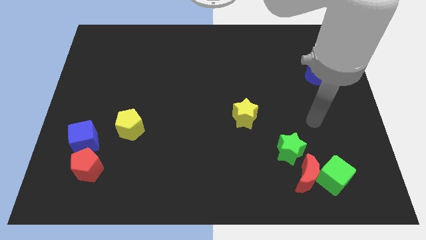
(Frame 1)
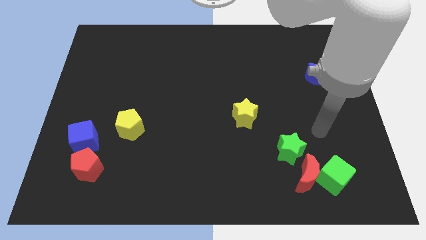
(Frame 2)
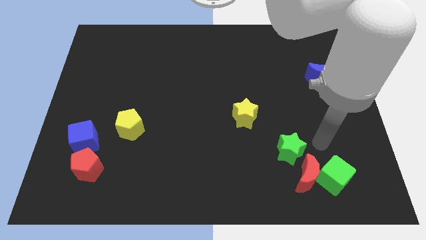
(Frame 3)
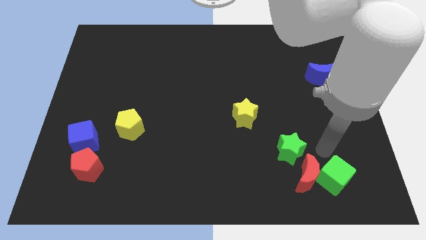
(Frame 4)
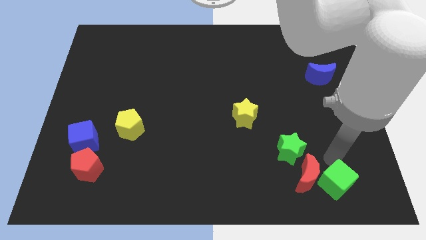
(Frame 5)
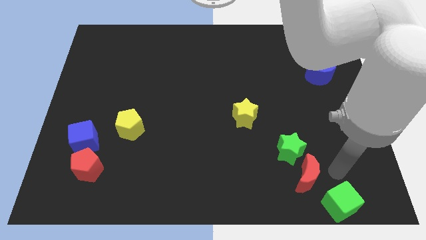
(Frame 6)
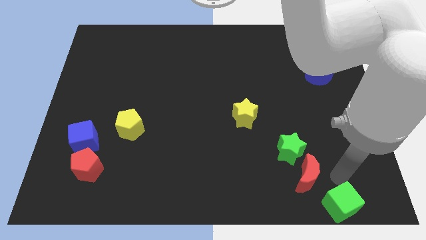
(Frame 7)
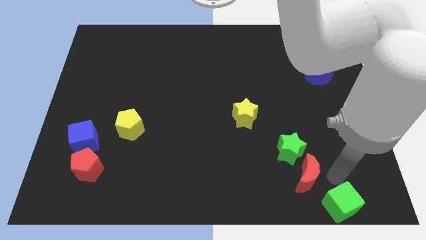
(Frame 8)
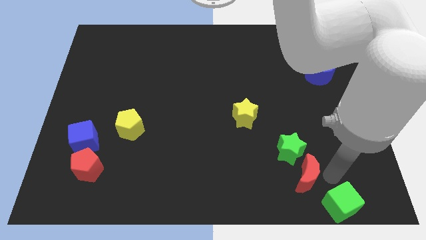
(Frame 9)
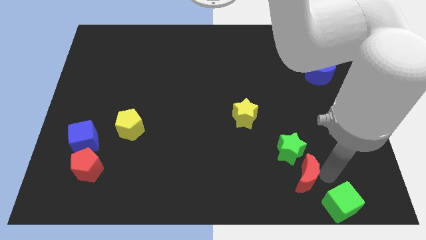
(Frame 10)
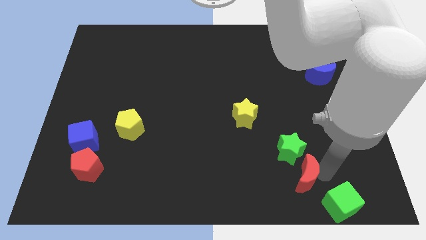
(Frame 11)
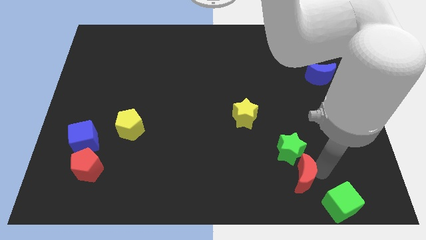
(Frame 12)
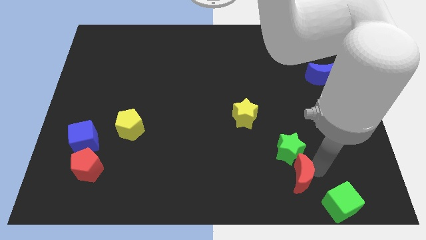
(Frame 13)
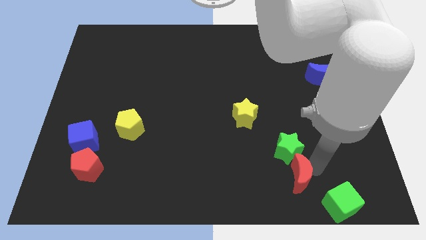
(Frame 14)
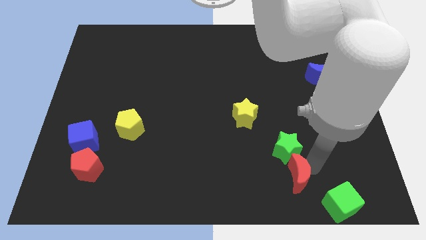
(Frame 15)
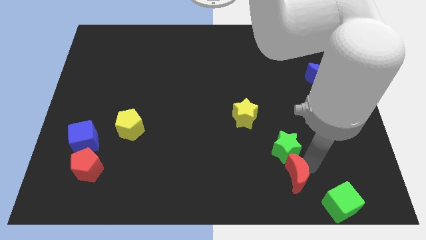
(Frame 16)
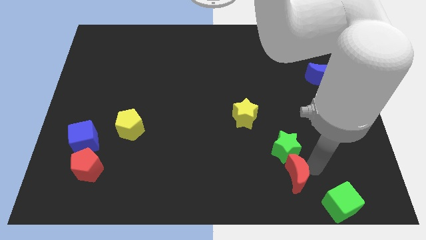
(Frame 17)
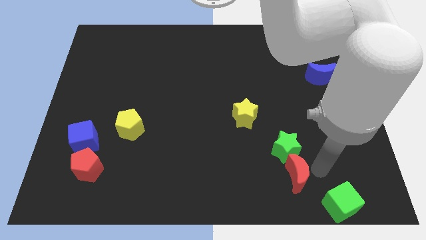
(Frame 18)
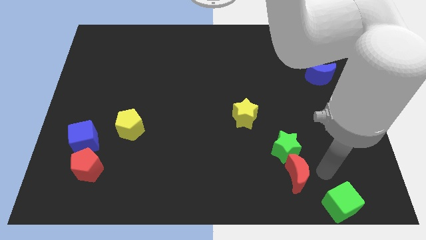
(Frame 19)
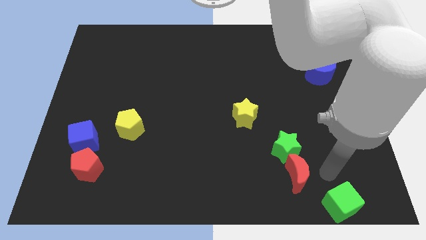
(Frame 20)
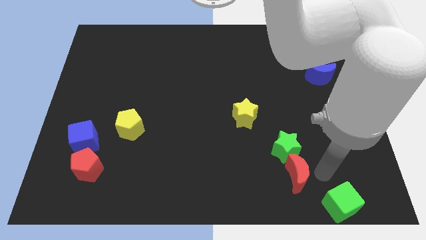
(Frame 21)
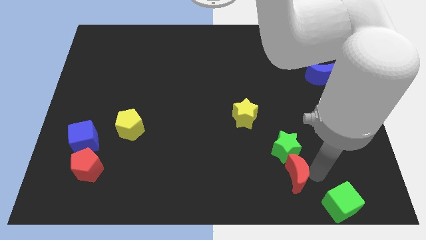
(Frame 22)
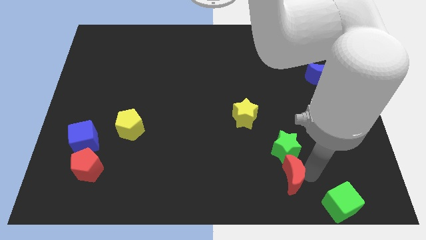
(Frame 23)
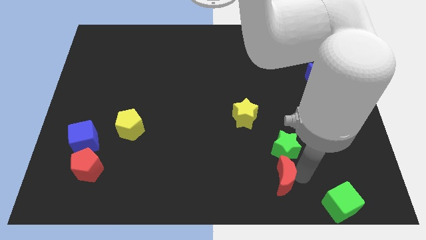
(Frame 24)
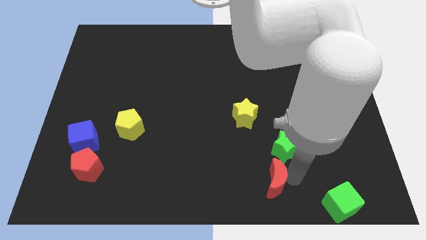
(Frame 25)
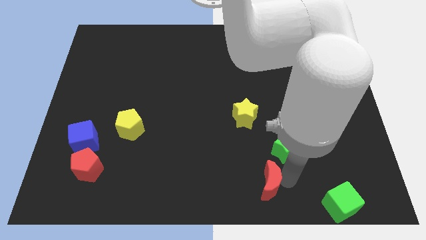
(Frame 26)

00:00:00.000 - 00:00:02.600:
slide the red moon to the left somewhat

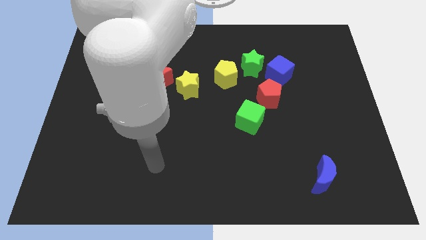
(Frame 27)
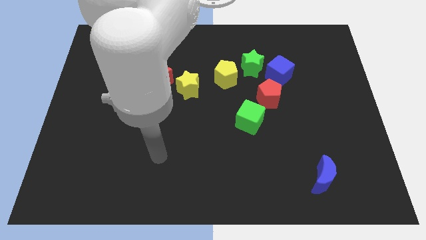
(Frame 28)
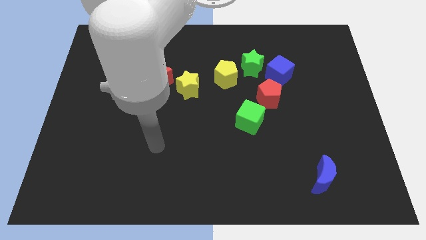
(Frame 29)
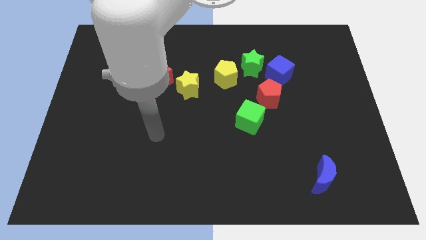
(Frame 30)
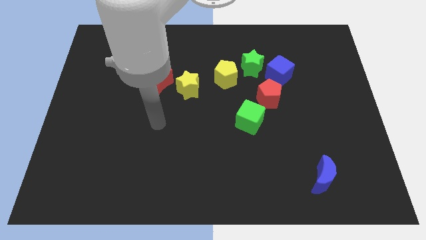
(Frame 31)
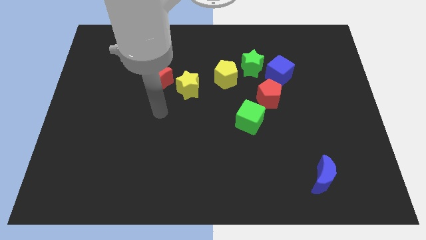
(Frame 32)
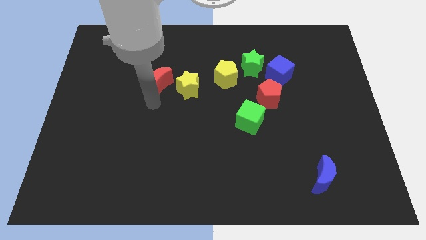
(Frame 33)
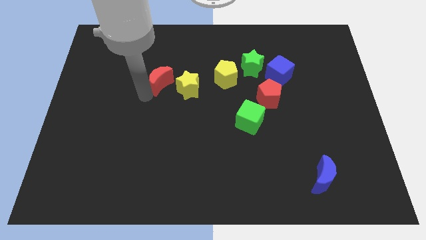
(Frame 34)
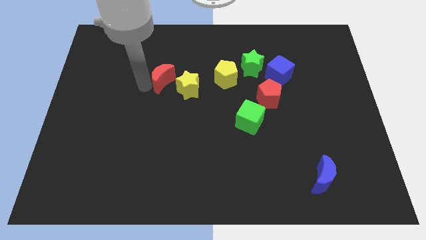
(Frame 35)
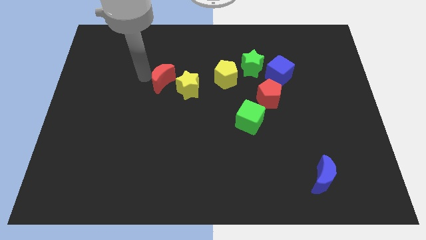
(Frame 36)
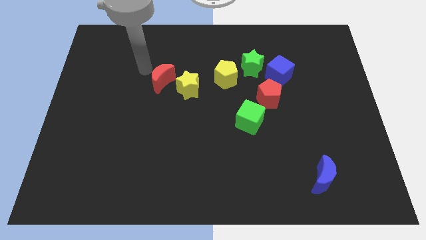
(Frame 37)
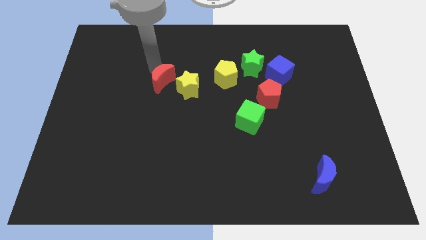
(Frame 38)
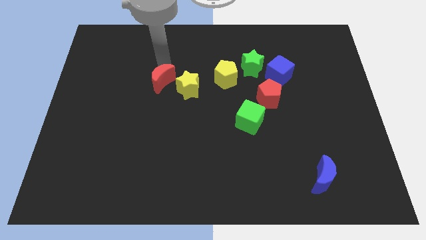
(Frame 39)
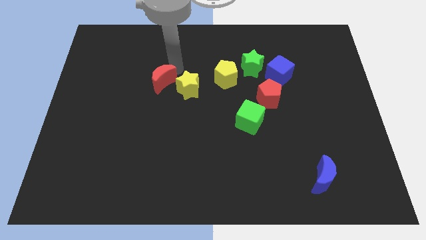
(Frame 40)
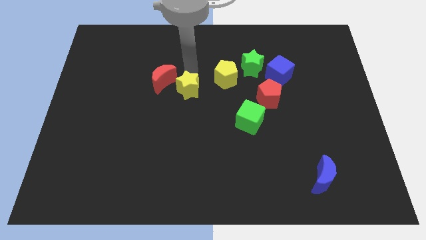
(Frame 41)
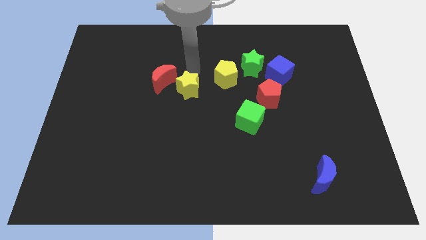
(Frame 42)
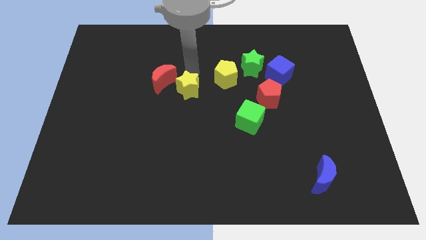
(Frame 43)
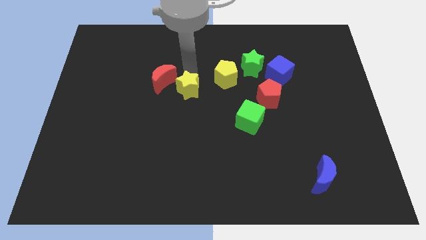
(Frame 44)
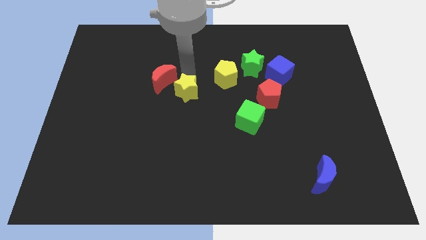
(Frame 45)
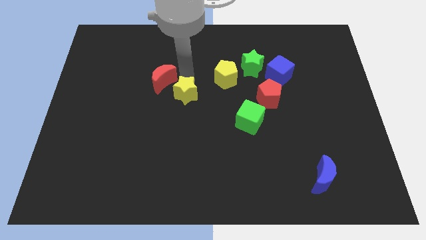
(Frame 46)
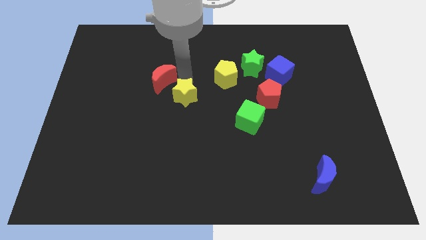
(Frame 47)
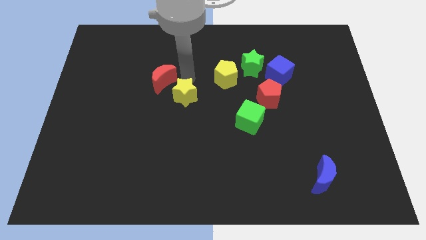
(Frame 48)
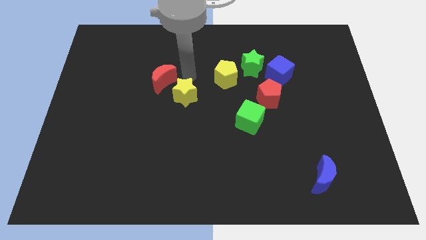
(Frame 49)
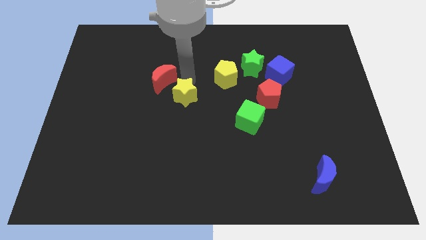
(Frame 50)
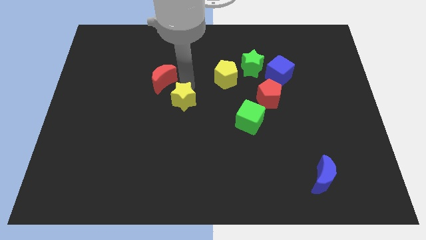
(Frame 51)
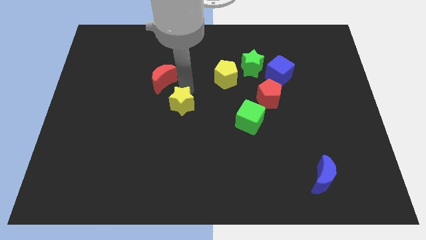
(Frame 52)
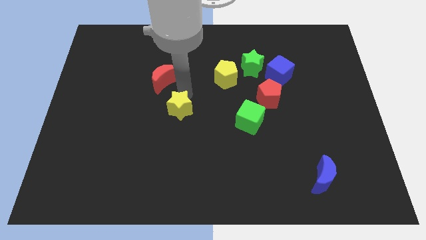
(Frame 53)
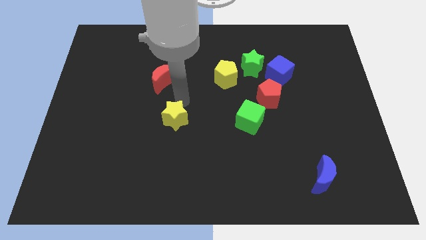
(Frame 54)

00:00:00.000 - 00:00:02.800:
slightly move the yellow star downwards

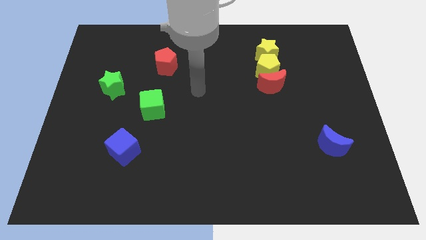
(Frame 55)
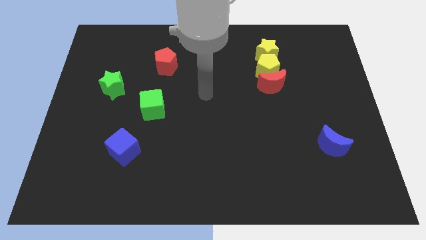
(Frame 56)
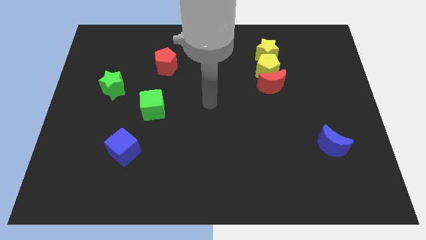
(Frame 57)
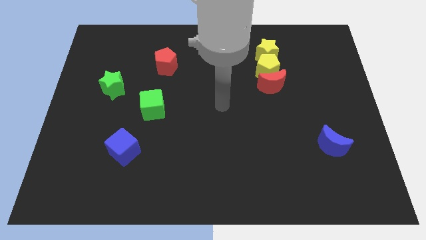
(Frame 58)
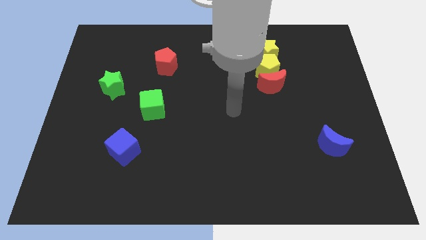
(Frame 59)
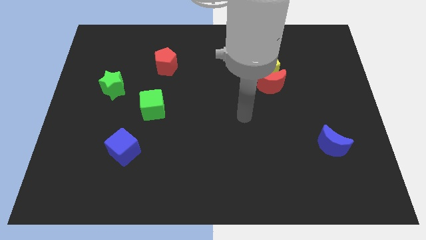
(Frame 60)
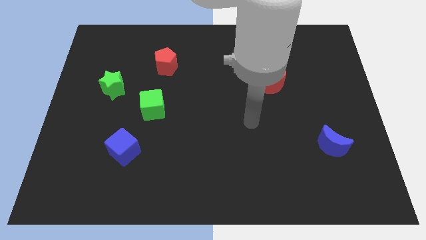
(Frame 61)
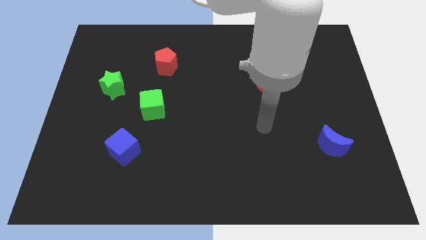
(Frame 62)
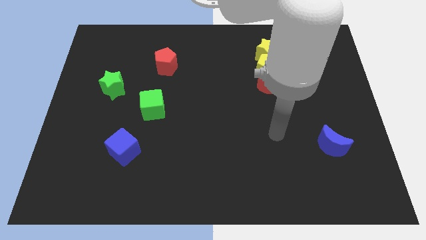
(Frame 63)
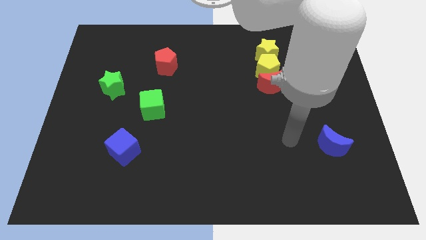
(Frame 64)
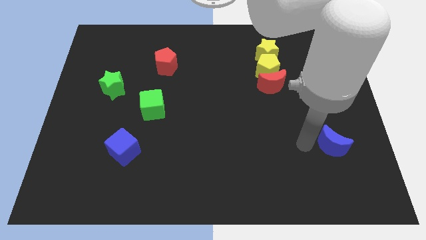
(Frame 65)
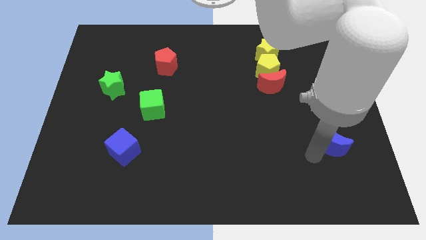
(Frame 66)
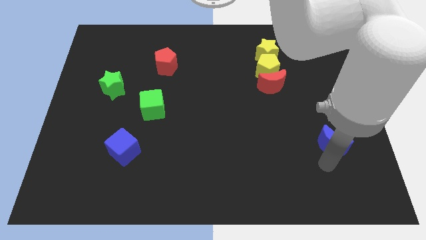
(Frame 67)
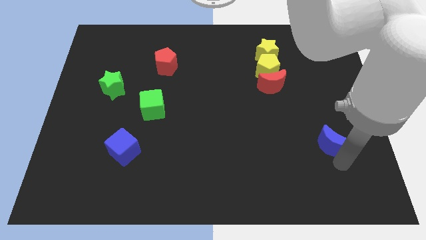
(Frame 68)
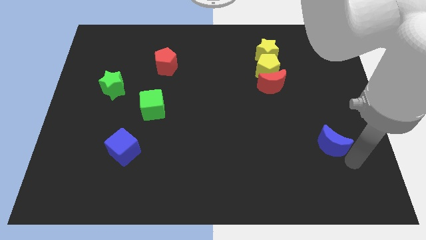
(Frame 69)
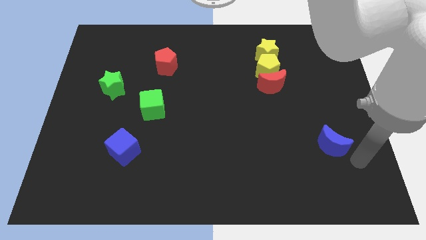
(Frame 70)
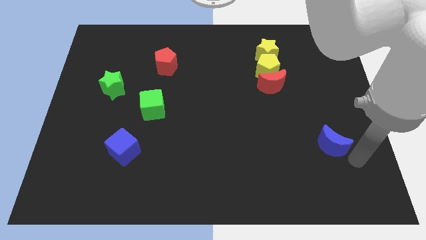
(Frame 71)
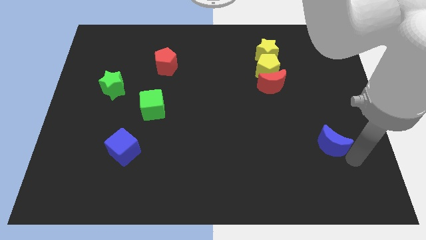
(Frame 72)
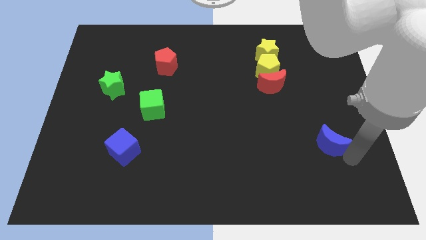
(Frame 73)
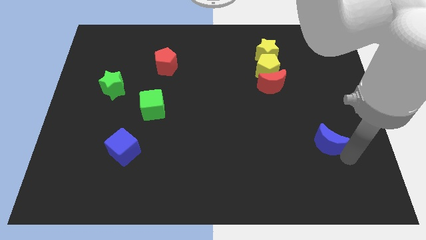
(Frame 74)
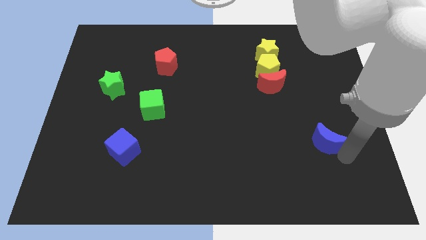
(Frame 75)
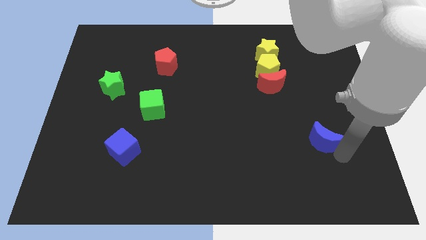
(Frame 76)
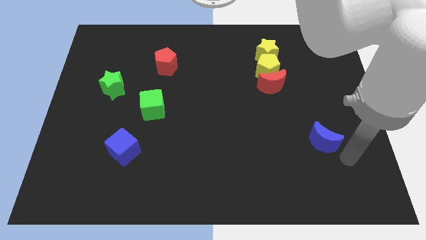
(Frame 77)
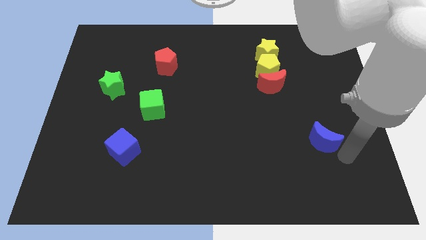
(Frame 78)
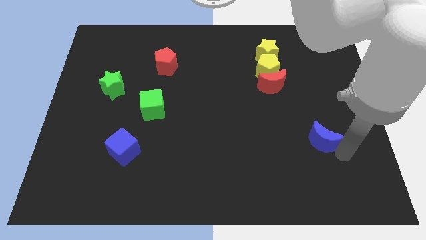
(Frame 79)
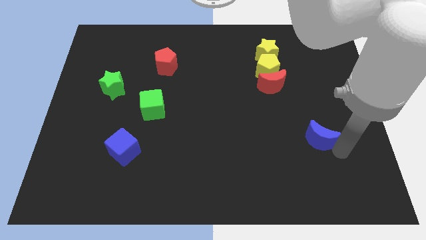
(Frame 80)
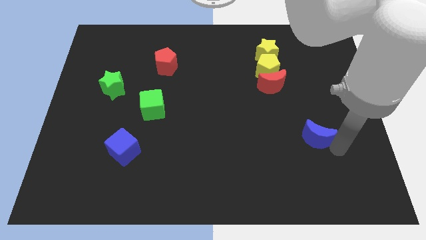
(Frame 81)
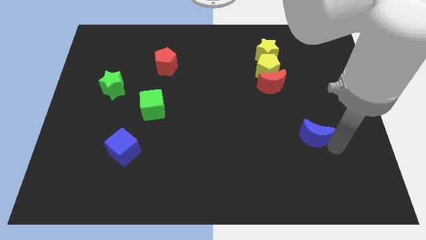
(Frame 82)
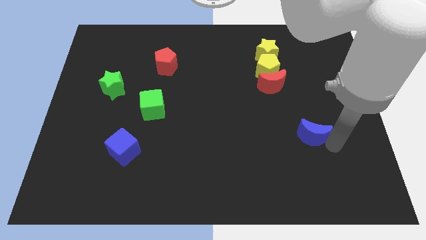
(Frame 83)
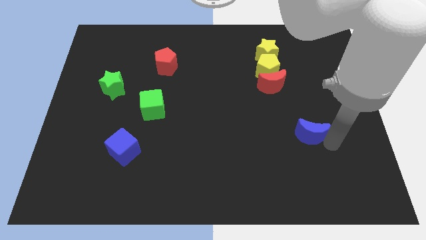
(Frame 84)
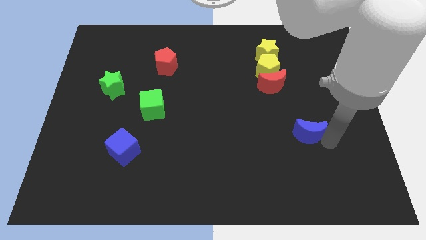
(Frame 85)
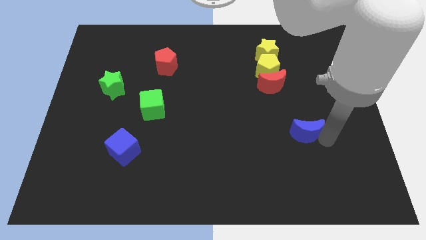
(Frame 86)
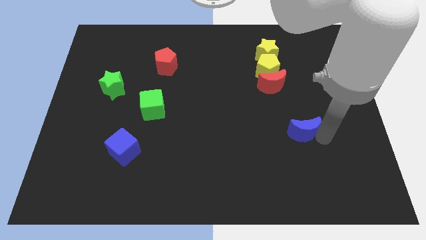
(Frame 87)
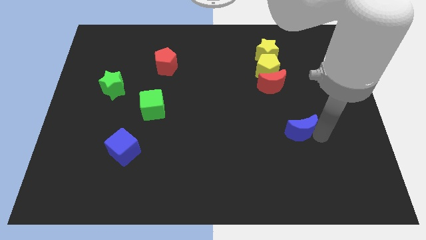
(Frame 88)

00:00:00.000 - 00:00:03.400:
slide the blue moon up and left somewhat
